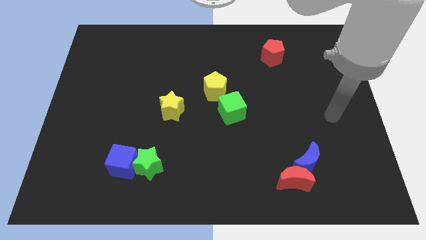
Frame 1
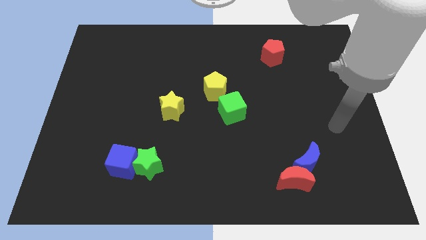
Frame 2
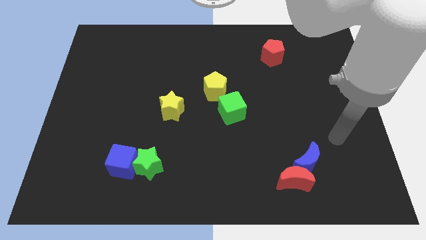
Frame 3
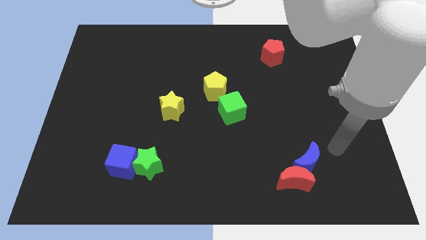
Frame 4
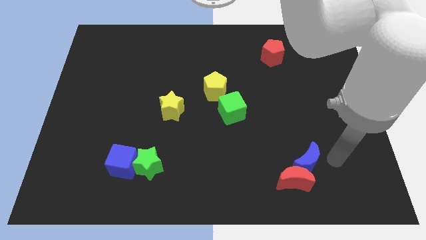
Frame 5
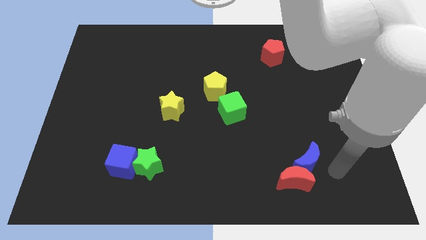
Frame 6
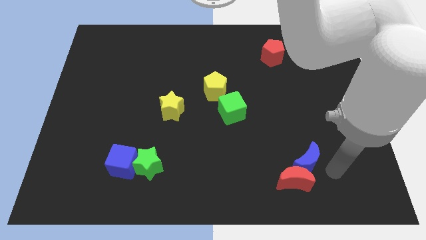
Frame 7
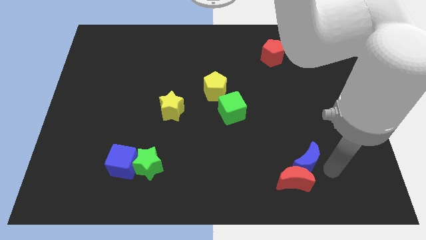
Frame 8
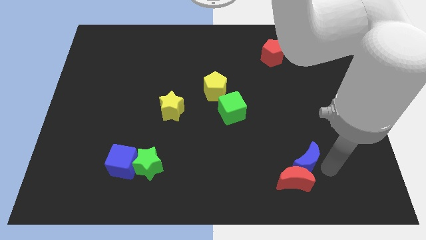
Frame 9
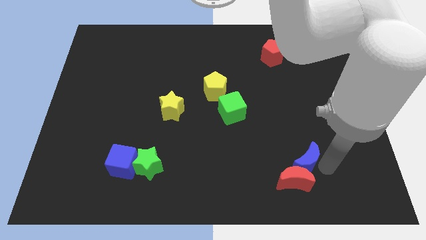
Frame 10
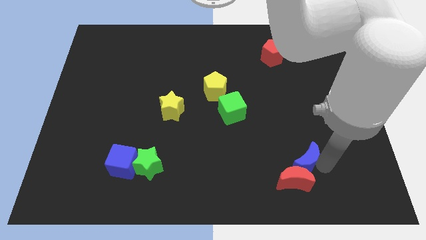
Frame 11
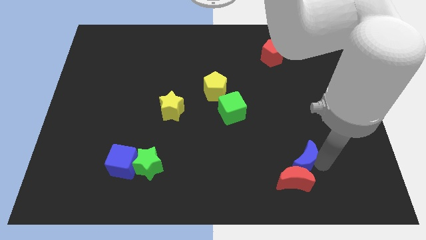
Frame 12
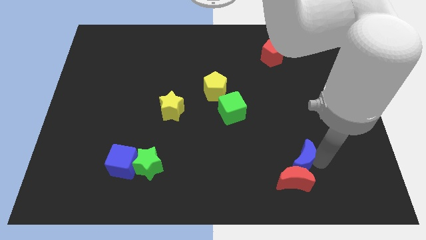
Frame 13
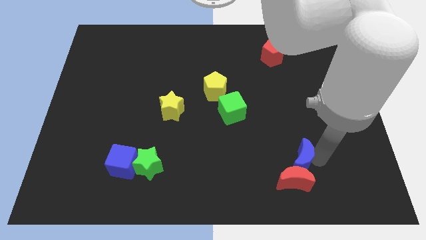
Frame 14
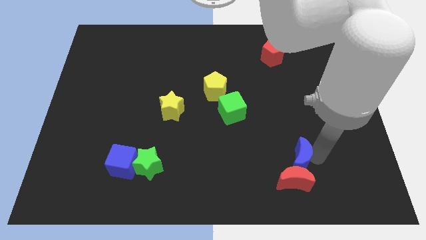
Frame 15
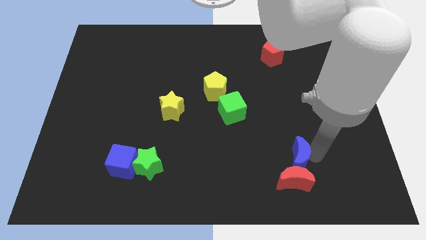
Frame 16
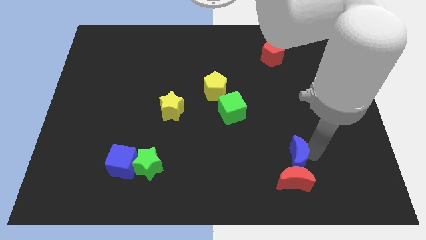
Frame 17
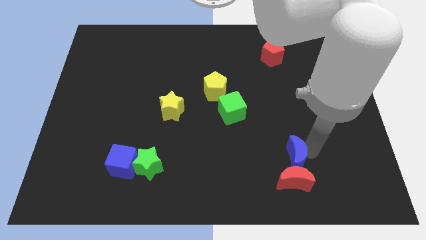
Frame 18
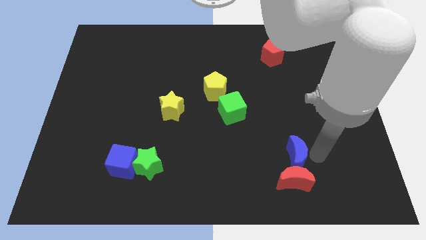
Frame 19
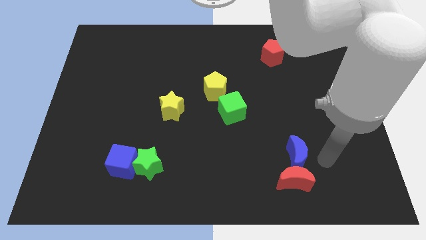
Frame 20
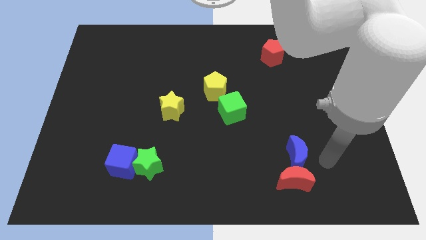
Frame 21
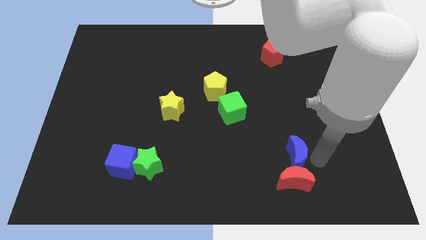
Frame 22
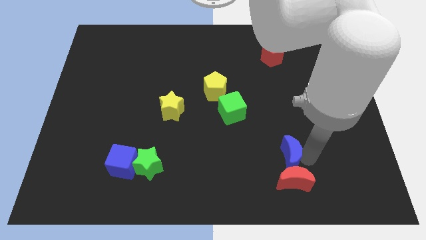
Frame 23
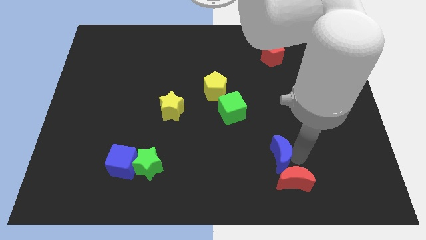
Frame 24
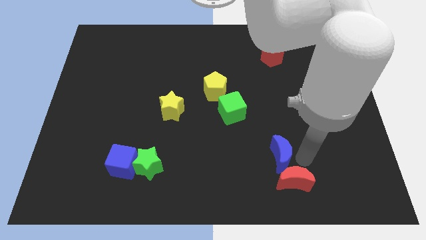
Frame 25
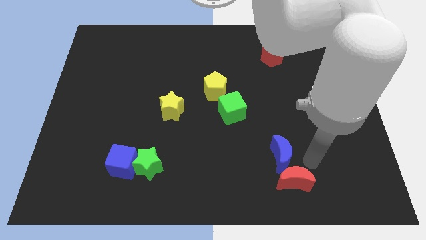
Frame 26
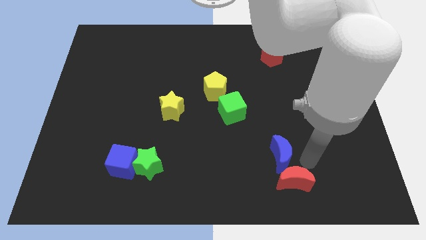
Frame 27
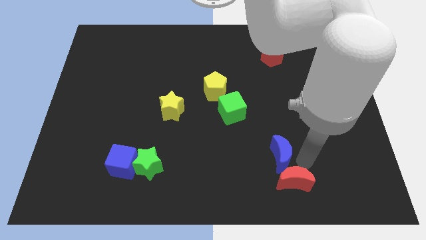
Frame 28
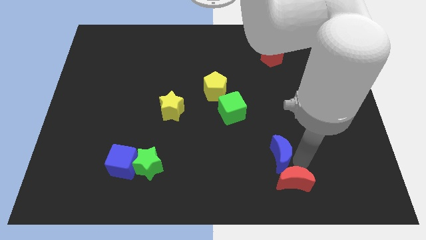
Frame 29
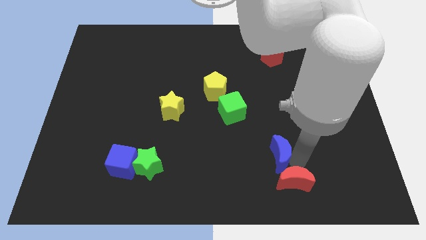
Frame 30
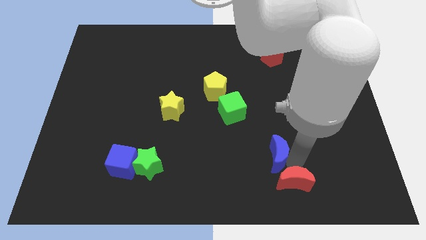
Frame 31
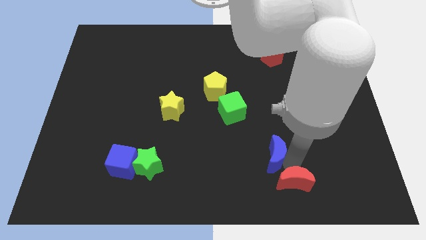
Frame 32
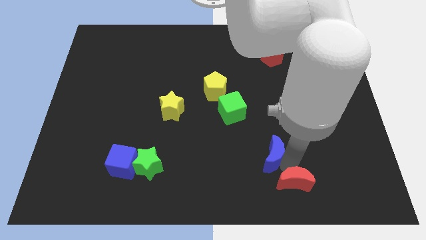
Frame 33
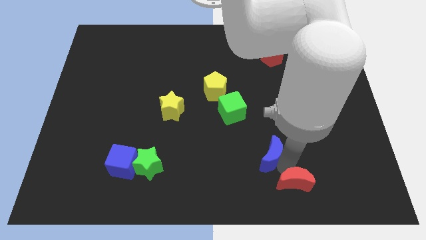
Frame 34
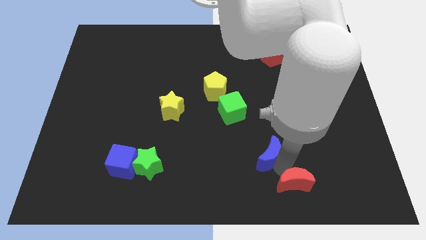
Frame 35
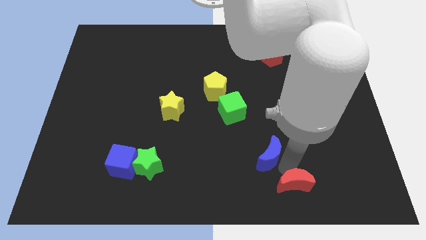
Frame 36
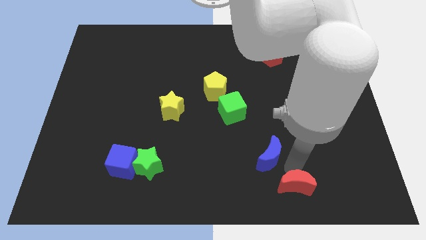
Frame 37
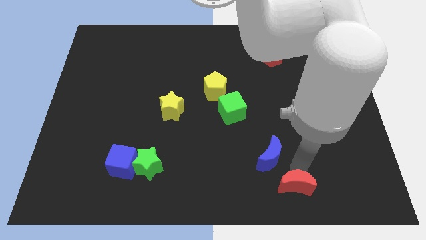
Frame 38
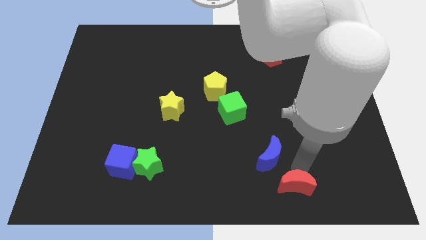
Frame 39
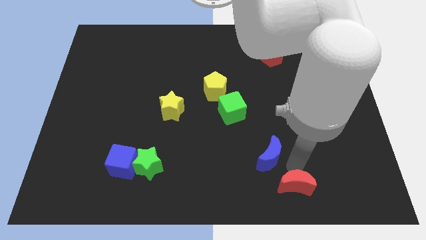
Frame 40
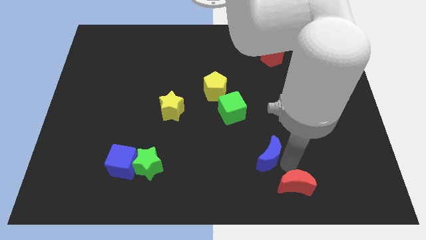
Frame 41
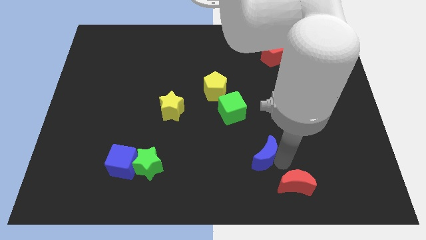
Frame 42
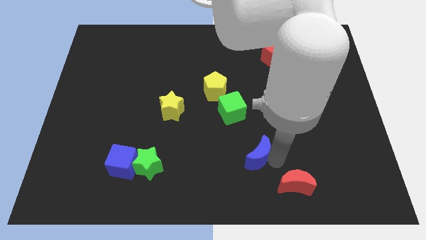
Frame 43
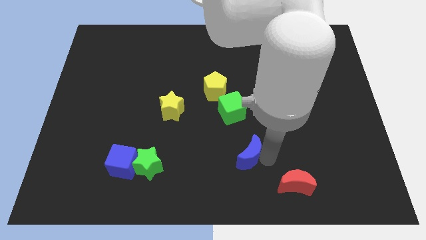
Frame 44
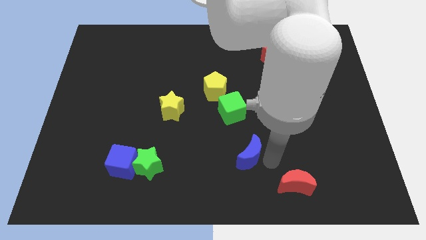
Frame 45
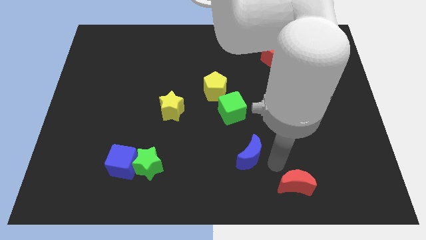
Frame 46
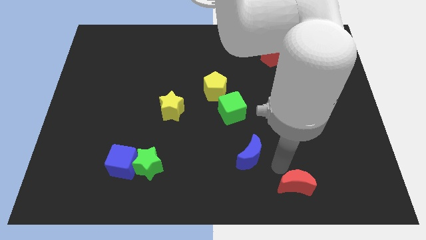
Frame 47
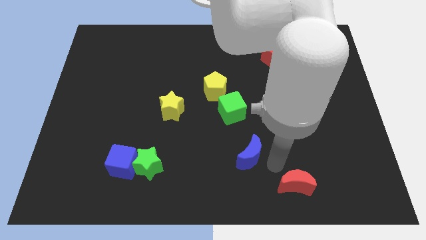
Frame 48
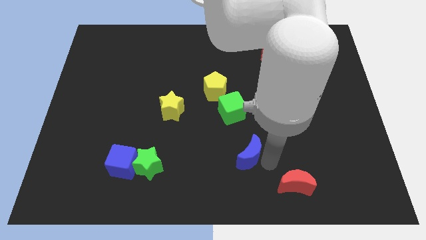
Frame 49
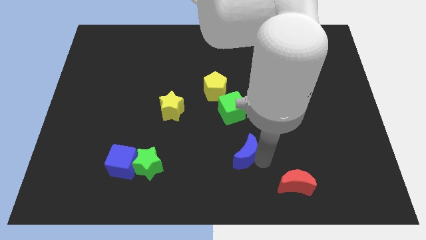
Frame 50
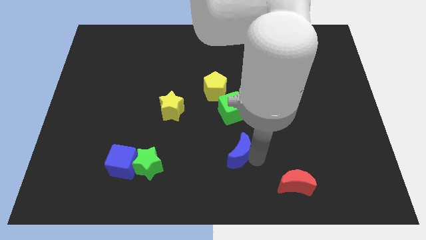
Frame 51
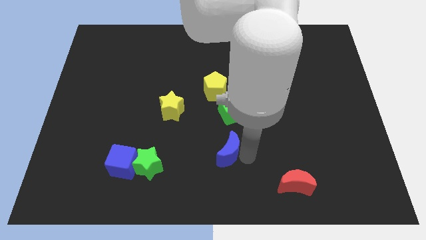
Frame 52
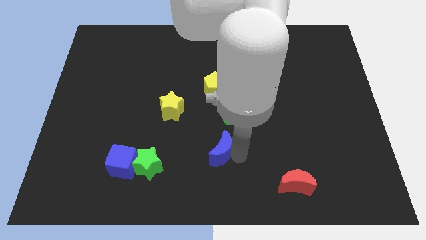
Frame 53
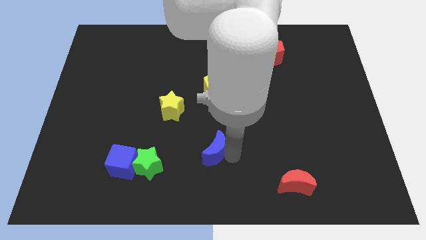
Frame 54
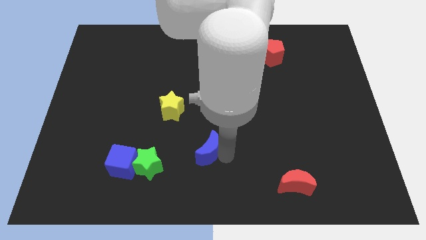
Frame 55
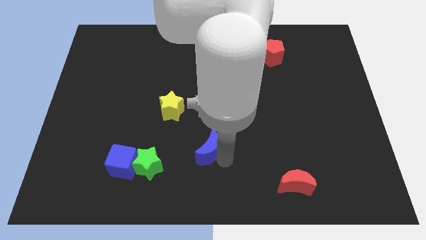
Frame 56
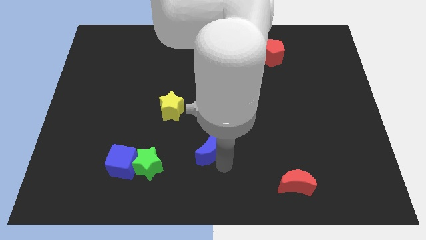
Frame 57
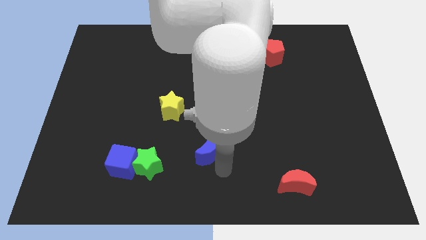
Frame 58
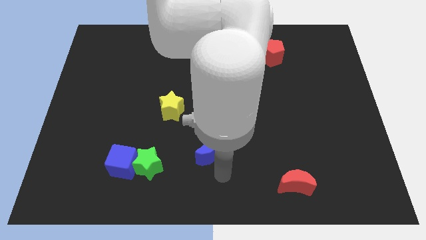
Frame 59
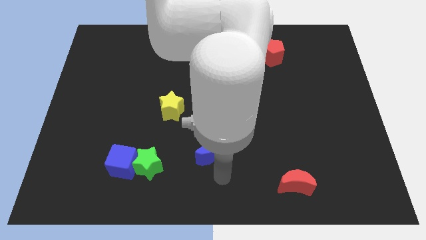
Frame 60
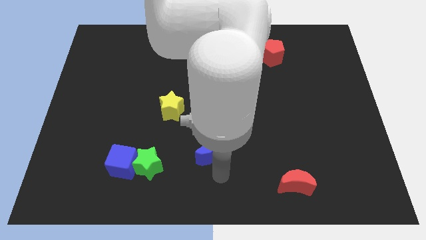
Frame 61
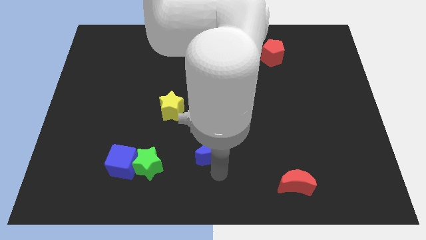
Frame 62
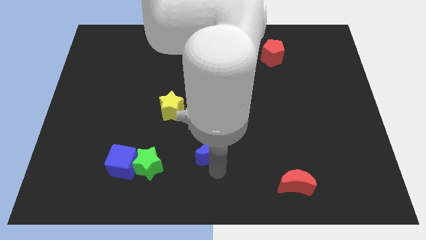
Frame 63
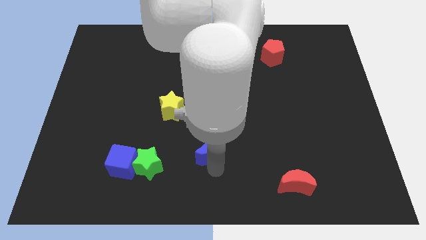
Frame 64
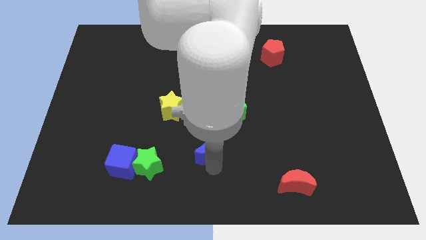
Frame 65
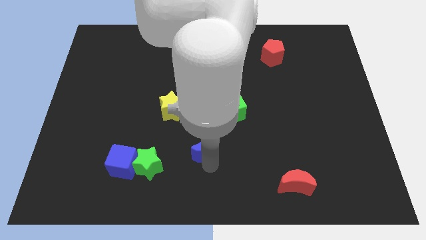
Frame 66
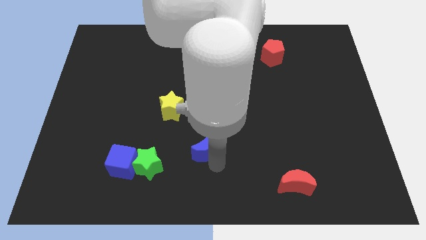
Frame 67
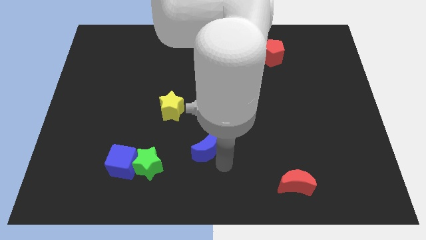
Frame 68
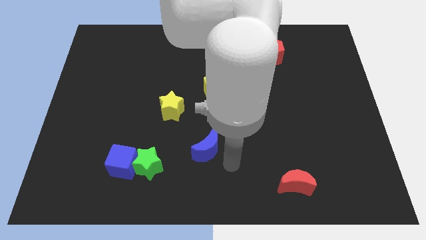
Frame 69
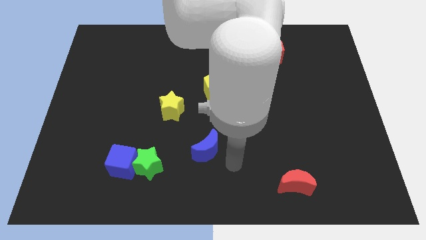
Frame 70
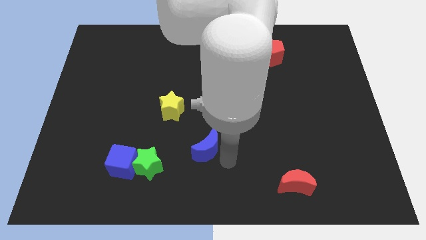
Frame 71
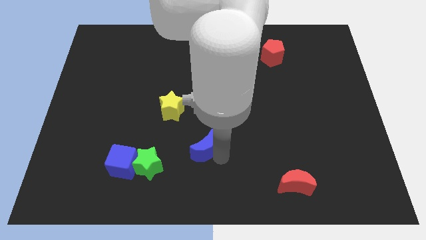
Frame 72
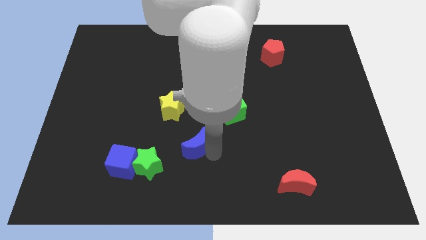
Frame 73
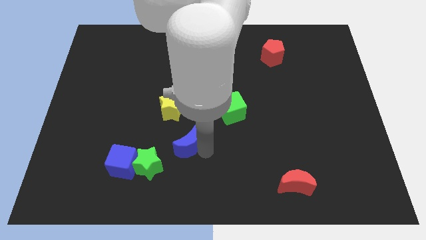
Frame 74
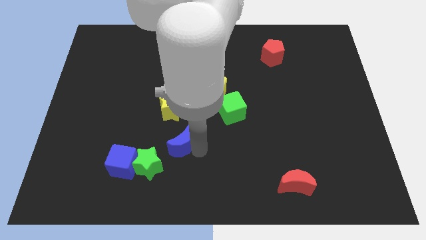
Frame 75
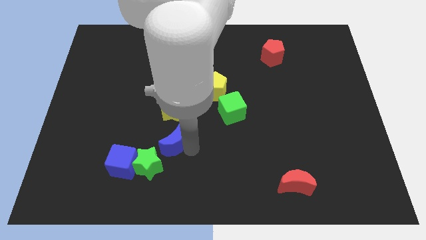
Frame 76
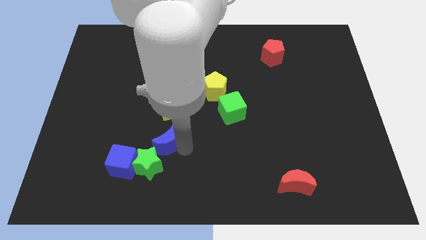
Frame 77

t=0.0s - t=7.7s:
put the blue moon above the green star
